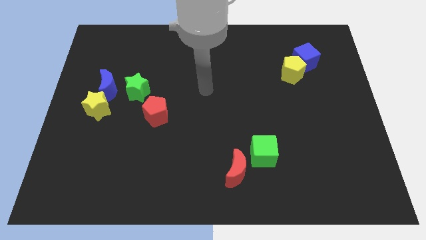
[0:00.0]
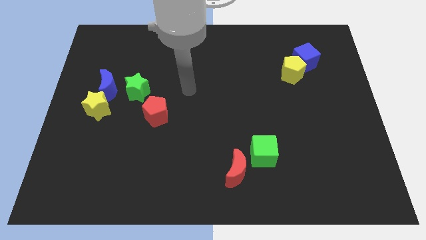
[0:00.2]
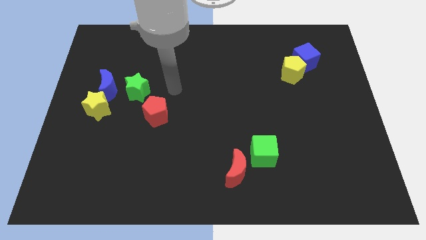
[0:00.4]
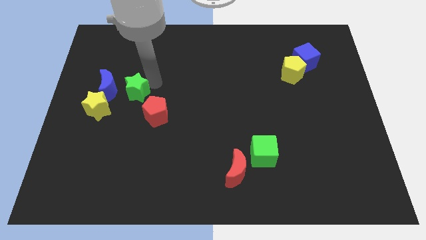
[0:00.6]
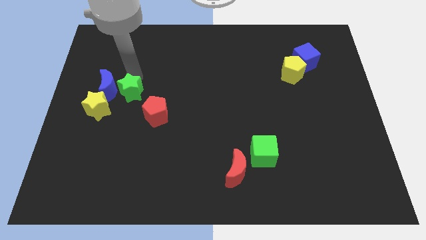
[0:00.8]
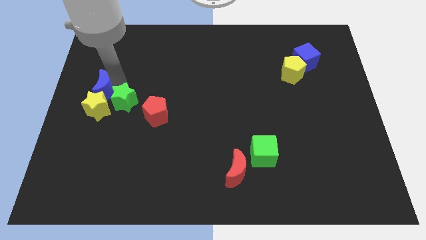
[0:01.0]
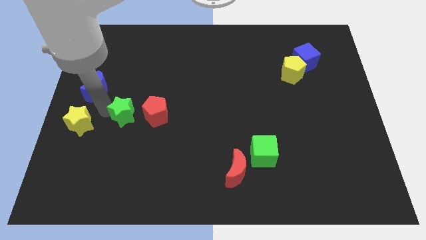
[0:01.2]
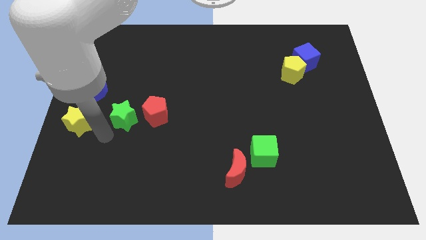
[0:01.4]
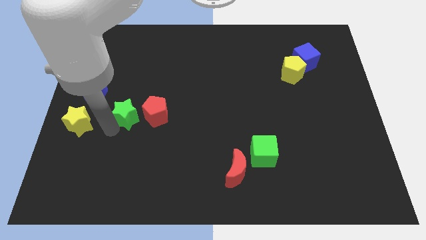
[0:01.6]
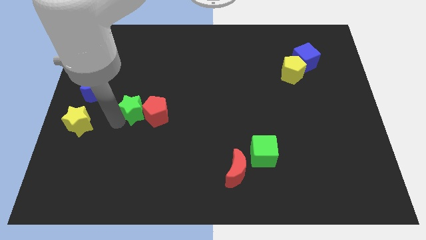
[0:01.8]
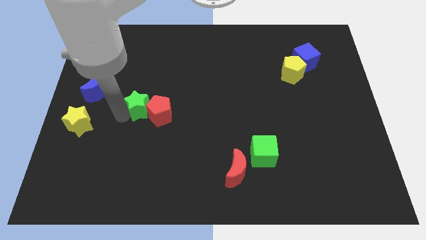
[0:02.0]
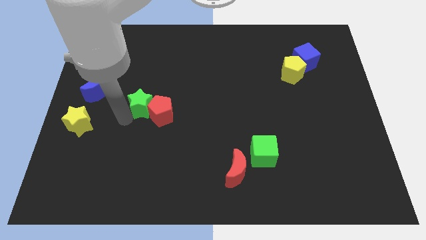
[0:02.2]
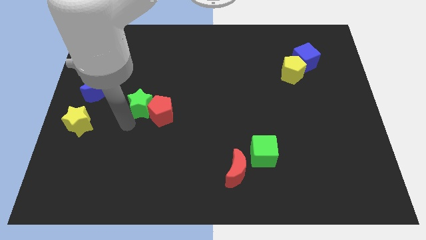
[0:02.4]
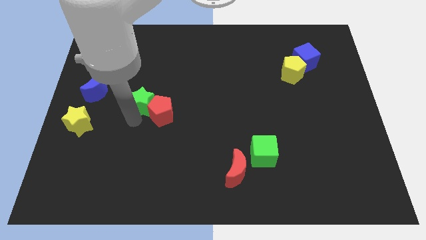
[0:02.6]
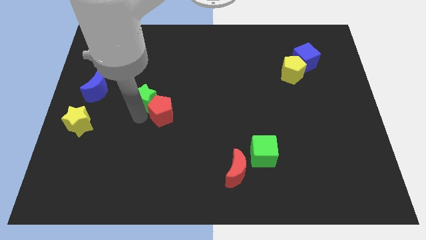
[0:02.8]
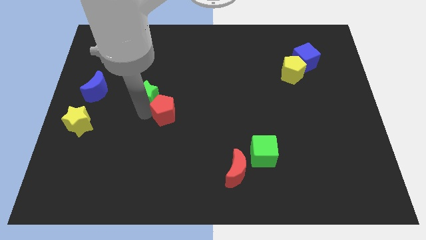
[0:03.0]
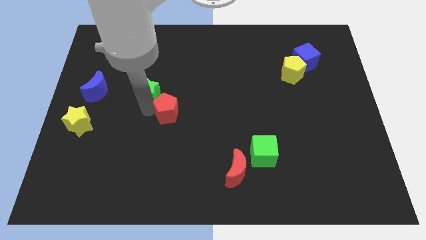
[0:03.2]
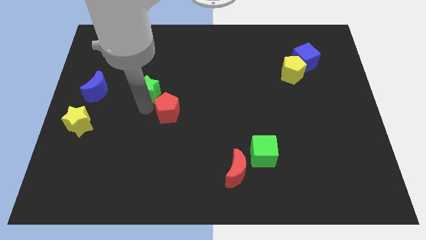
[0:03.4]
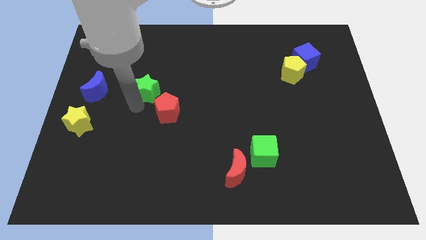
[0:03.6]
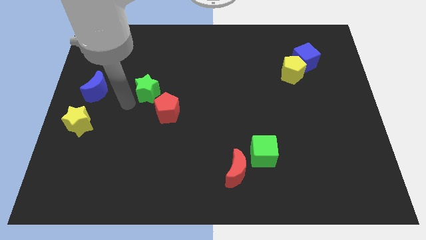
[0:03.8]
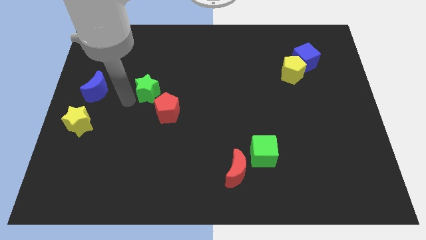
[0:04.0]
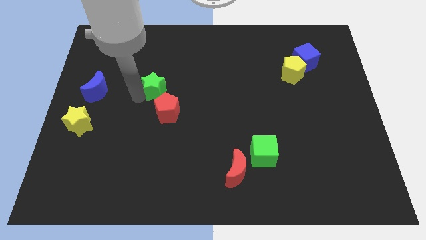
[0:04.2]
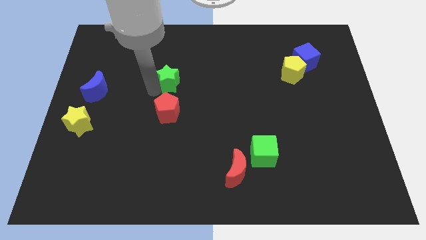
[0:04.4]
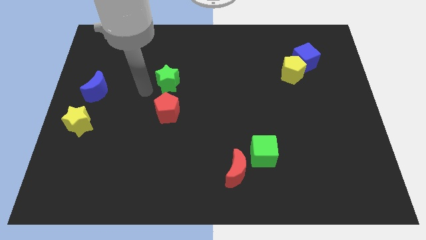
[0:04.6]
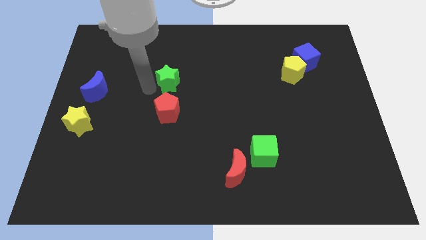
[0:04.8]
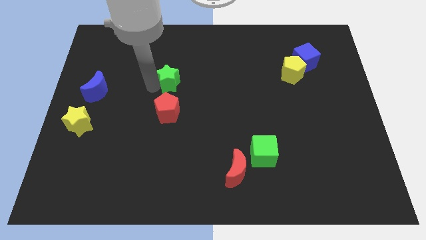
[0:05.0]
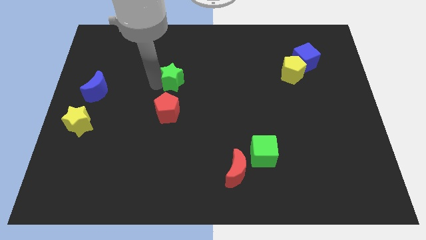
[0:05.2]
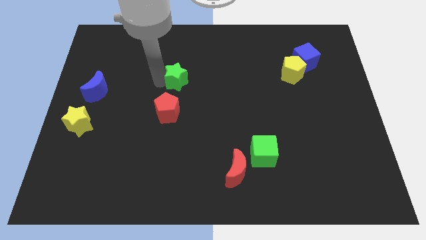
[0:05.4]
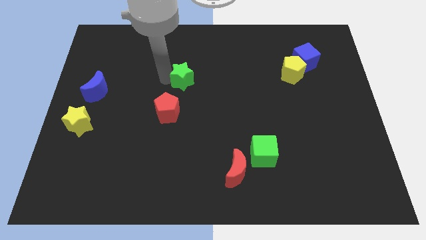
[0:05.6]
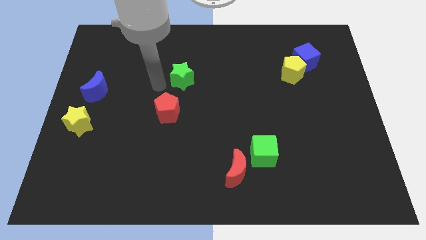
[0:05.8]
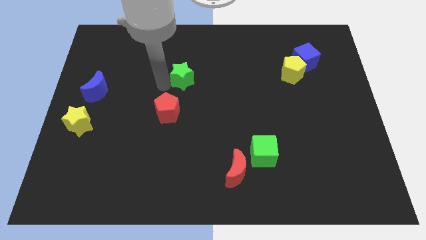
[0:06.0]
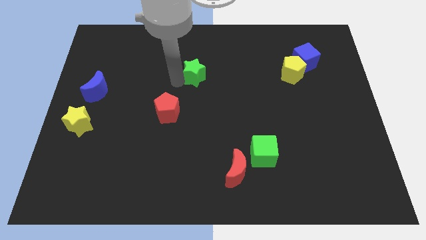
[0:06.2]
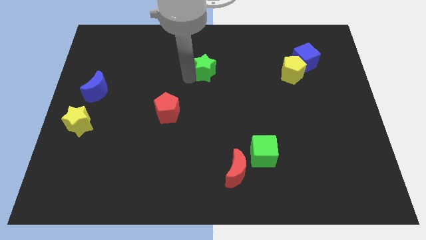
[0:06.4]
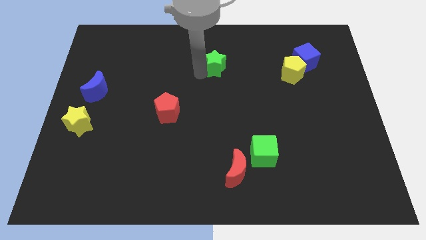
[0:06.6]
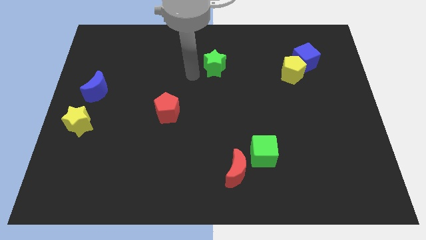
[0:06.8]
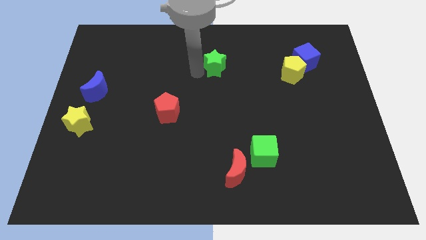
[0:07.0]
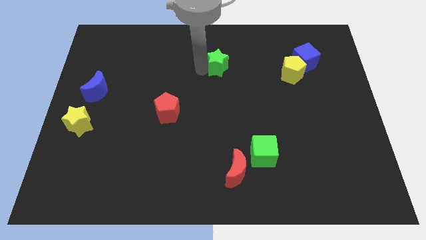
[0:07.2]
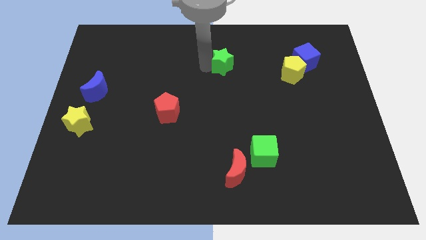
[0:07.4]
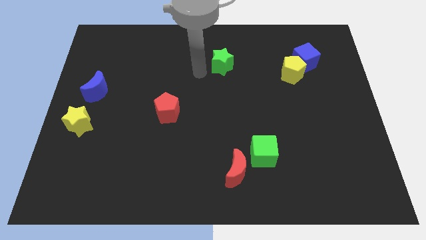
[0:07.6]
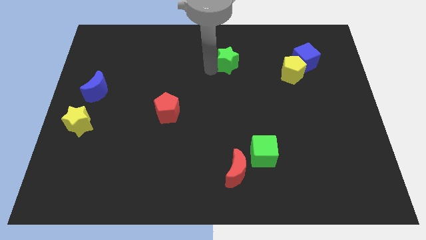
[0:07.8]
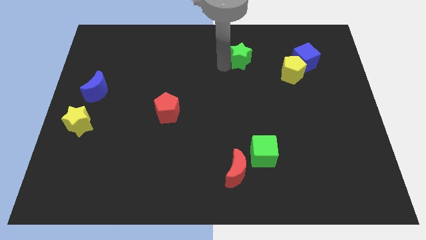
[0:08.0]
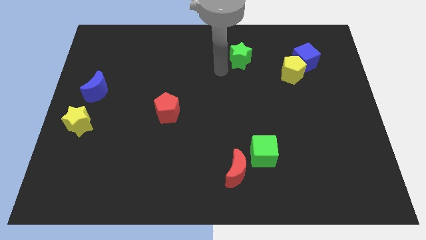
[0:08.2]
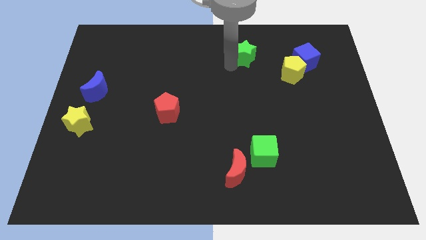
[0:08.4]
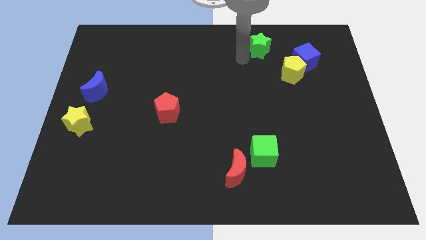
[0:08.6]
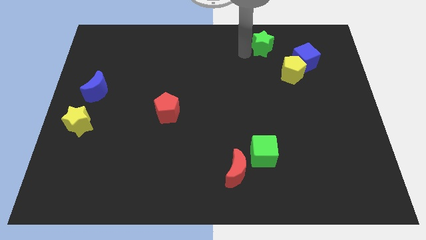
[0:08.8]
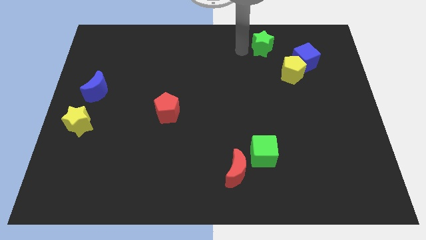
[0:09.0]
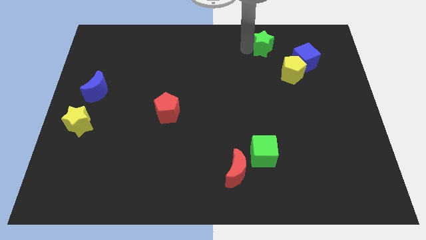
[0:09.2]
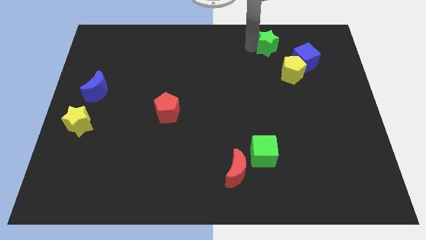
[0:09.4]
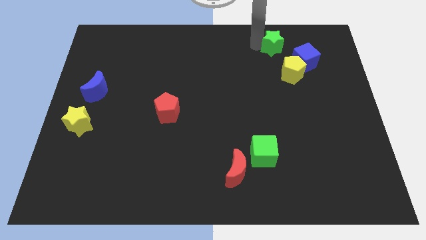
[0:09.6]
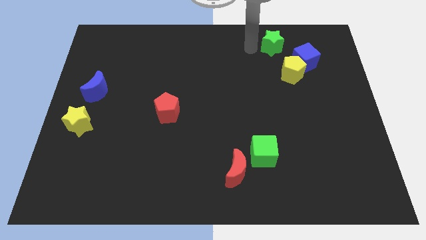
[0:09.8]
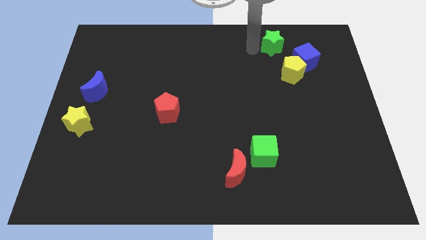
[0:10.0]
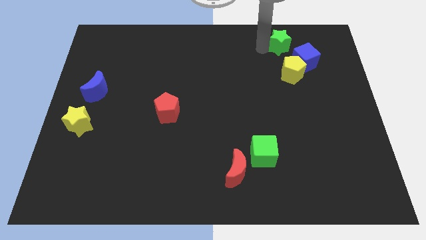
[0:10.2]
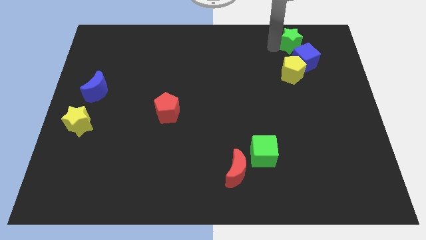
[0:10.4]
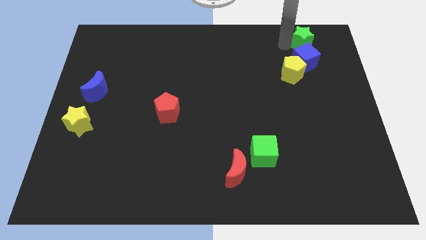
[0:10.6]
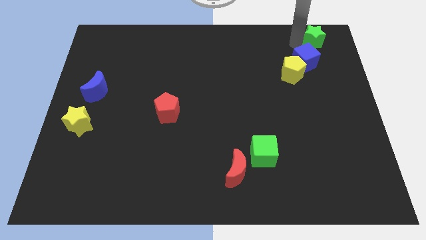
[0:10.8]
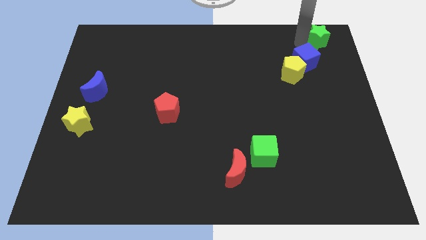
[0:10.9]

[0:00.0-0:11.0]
push the green star to the top right corner
